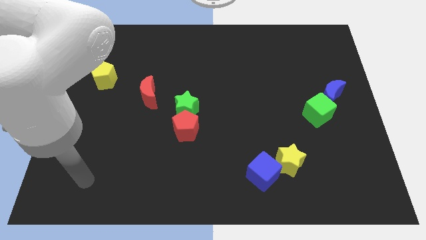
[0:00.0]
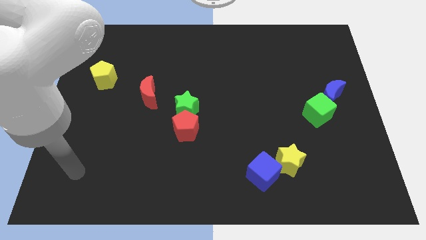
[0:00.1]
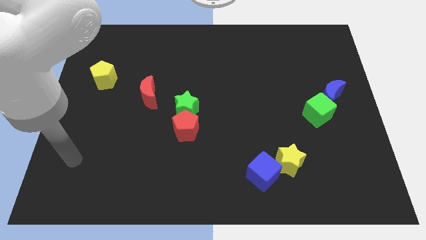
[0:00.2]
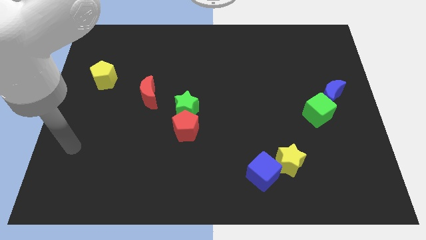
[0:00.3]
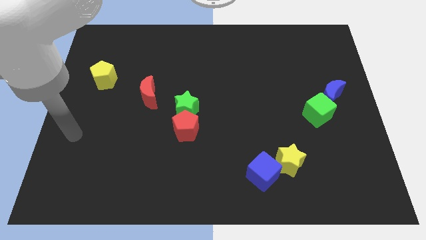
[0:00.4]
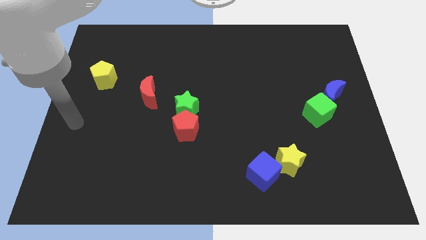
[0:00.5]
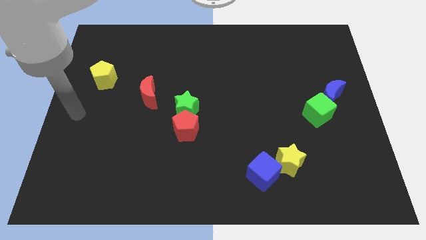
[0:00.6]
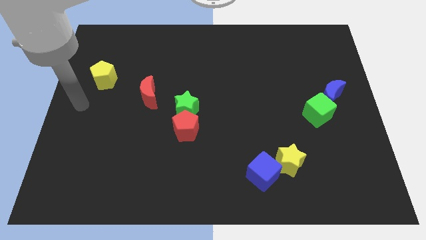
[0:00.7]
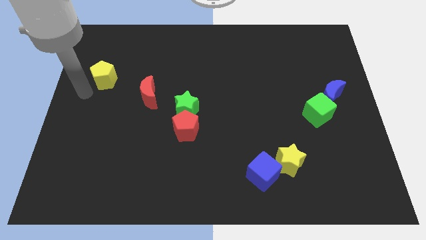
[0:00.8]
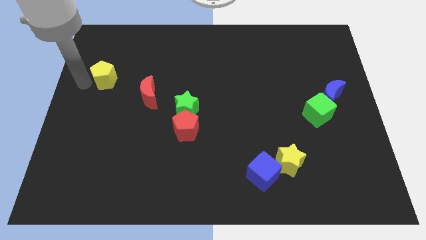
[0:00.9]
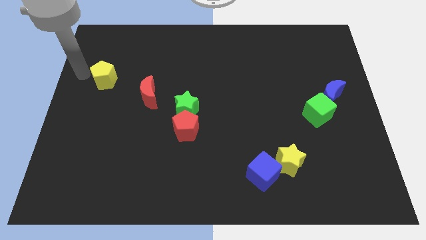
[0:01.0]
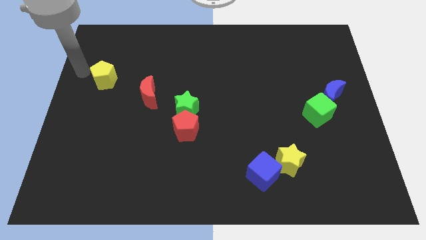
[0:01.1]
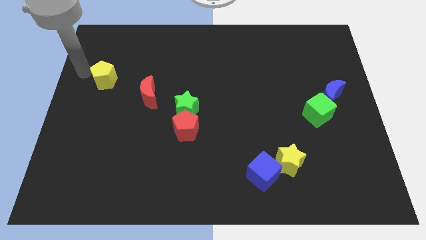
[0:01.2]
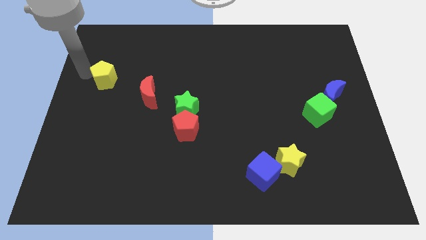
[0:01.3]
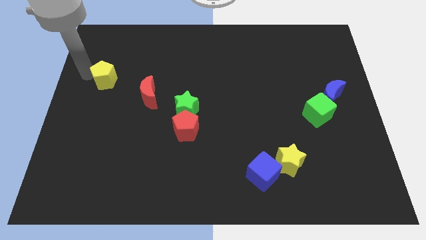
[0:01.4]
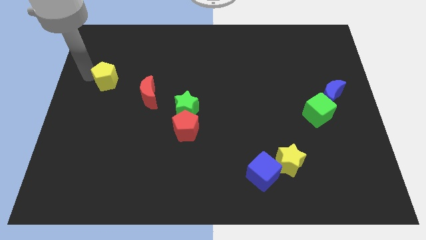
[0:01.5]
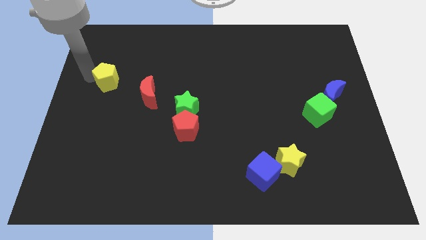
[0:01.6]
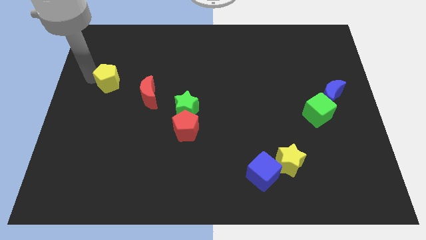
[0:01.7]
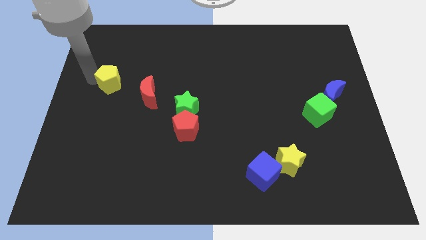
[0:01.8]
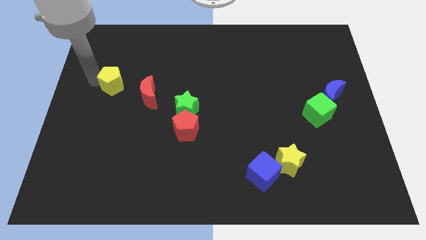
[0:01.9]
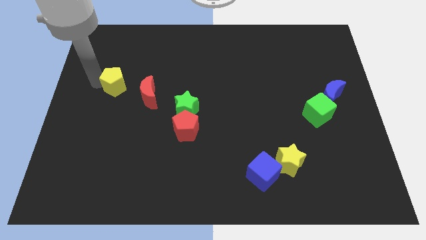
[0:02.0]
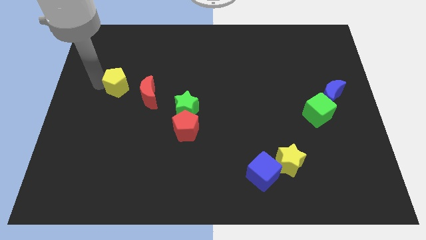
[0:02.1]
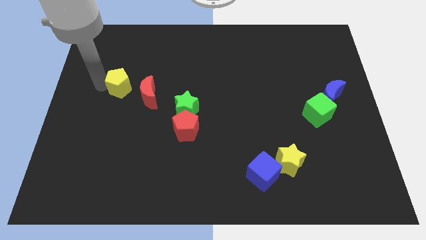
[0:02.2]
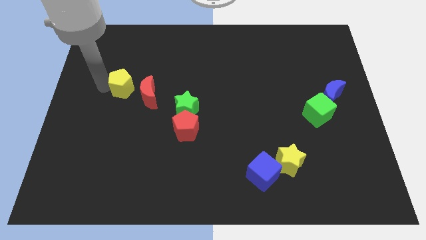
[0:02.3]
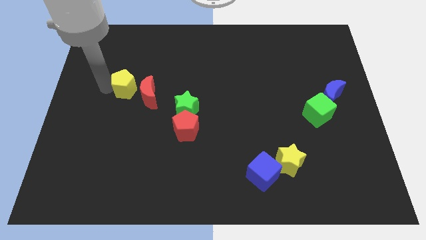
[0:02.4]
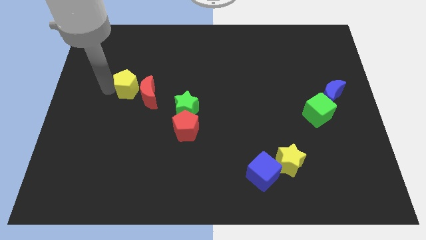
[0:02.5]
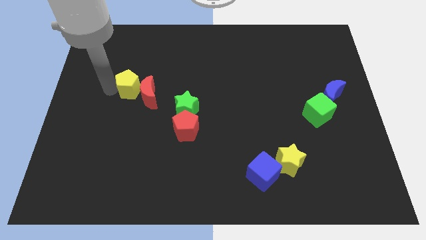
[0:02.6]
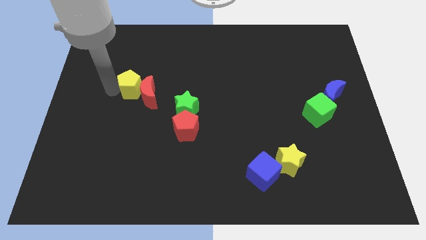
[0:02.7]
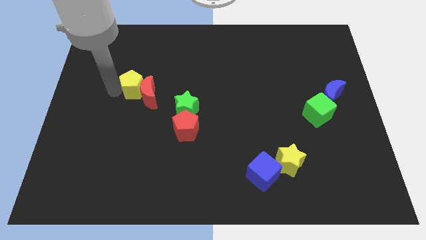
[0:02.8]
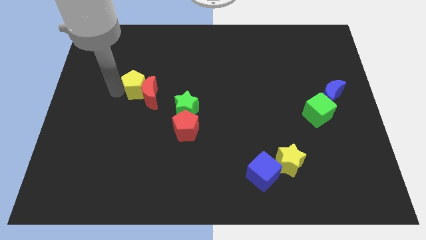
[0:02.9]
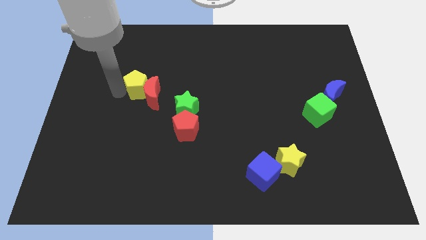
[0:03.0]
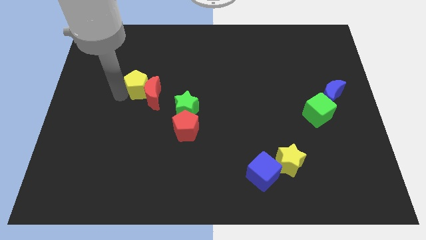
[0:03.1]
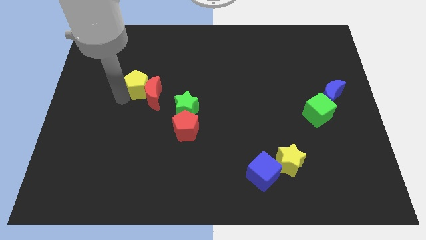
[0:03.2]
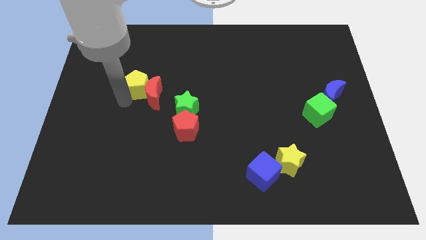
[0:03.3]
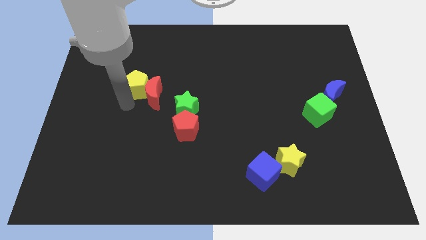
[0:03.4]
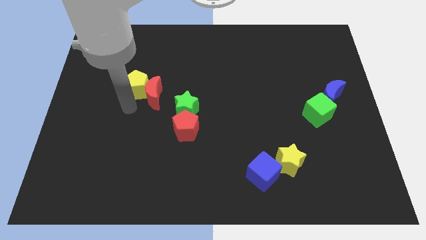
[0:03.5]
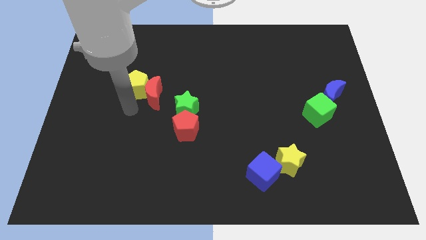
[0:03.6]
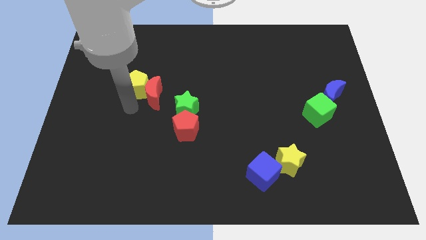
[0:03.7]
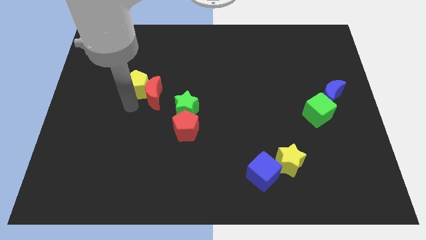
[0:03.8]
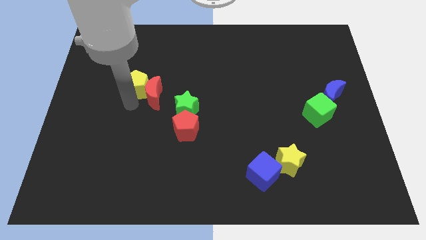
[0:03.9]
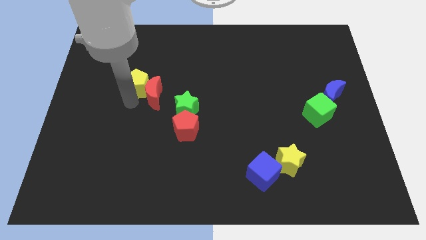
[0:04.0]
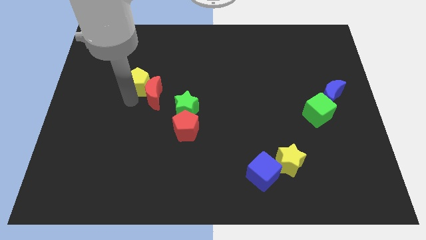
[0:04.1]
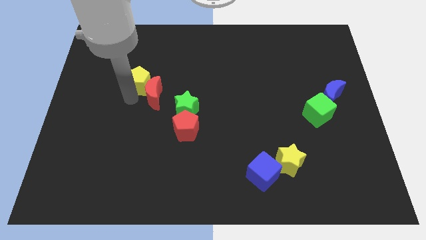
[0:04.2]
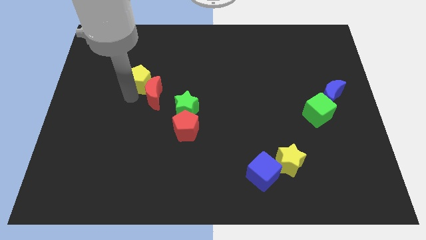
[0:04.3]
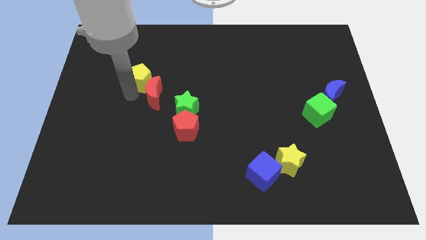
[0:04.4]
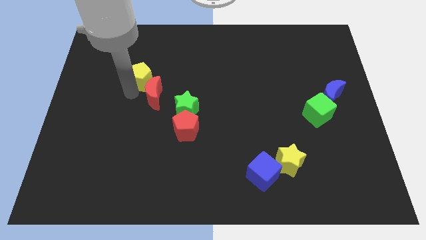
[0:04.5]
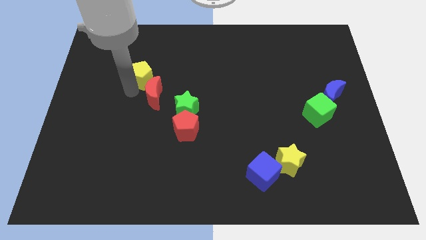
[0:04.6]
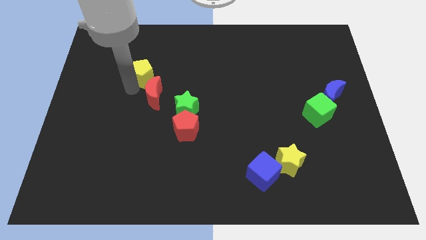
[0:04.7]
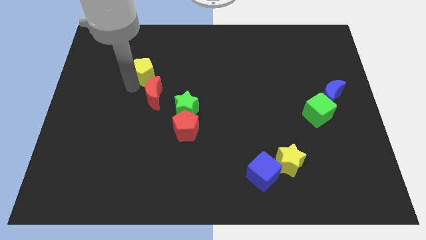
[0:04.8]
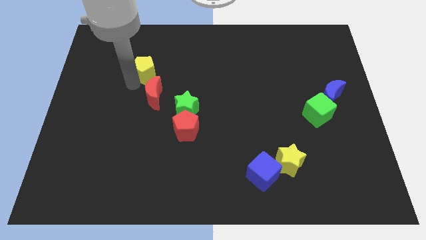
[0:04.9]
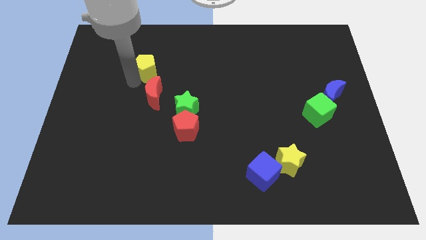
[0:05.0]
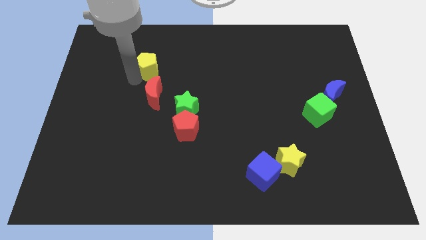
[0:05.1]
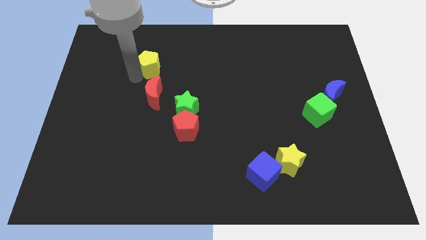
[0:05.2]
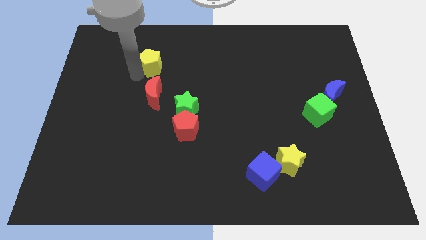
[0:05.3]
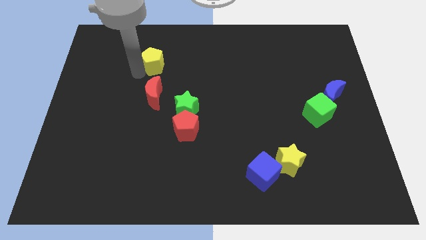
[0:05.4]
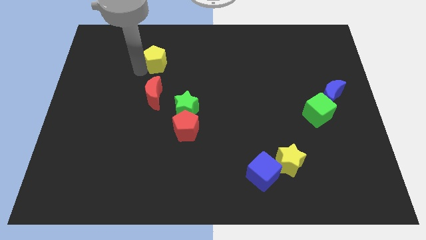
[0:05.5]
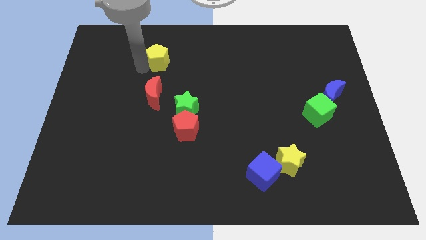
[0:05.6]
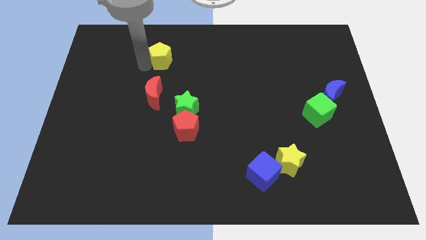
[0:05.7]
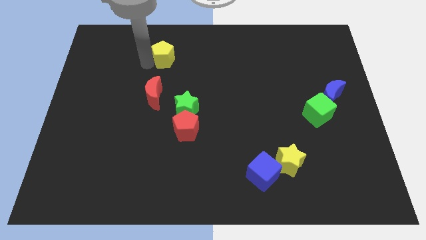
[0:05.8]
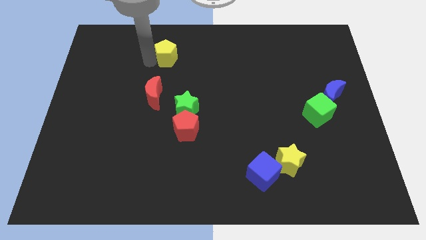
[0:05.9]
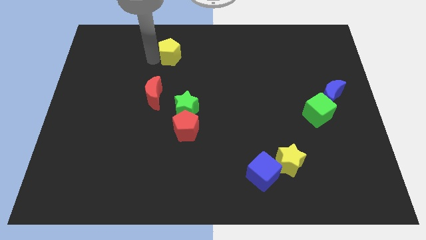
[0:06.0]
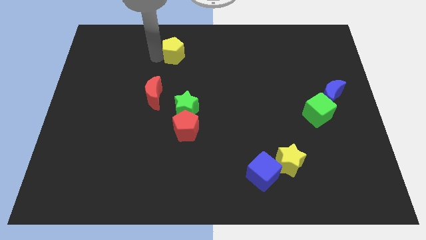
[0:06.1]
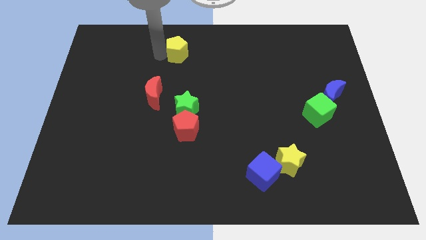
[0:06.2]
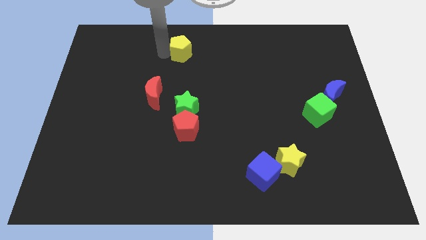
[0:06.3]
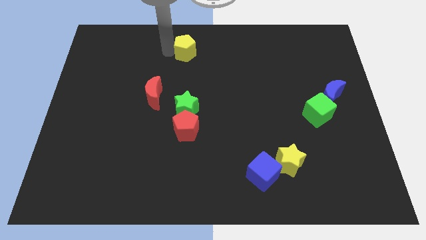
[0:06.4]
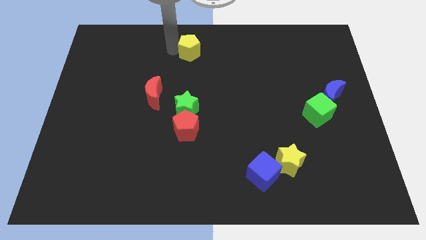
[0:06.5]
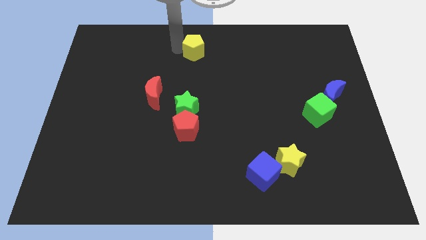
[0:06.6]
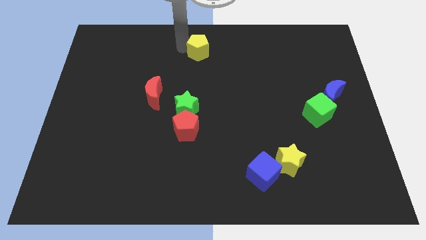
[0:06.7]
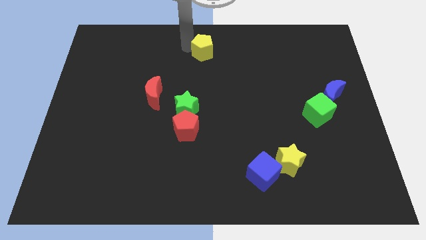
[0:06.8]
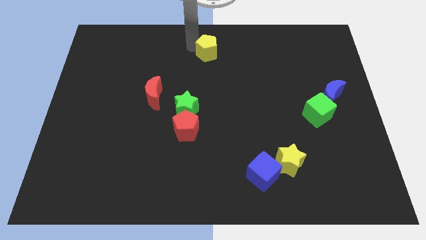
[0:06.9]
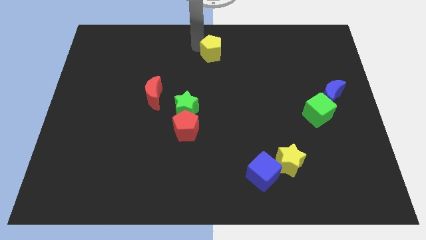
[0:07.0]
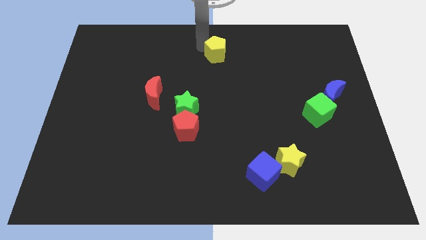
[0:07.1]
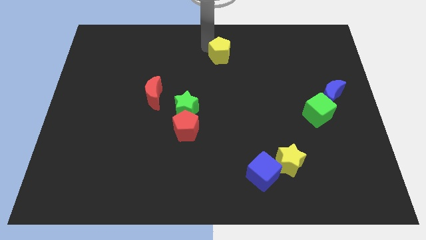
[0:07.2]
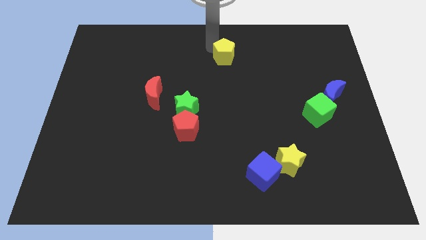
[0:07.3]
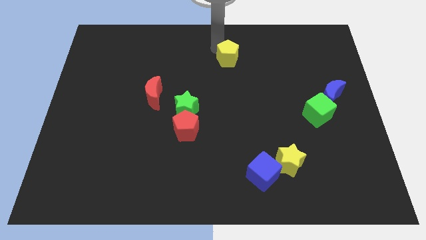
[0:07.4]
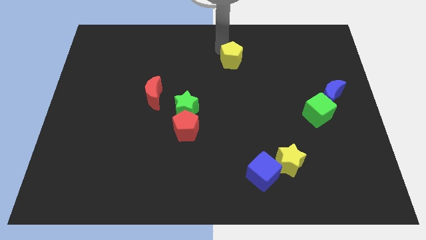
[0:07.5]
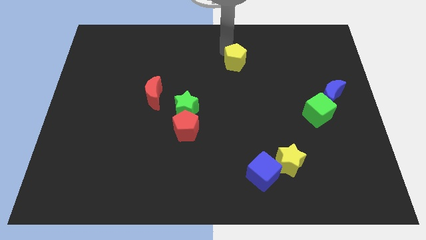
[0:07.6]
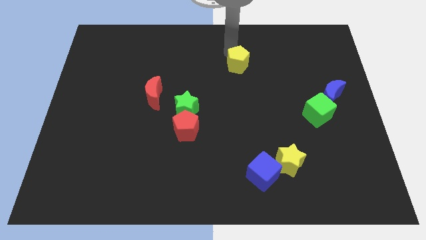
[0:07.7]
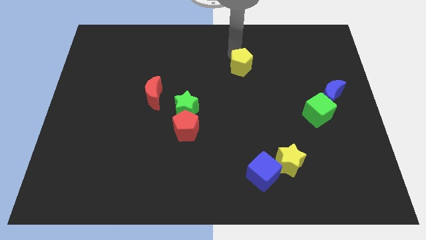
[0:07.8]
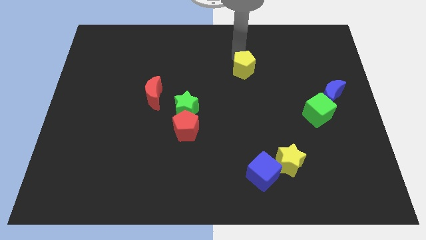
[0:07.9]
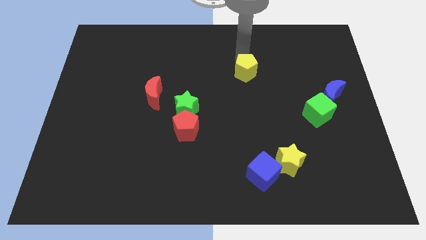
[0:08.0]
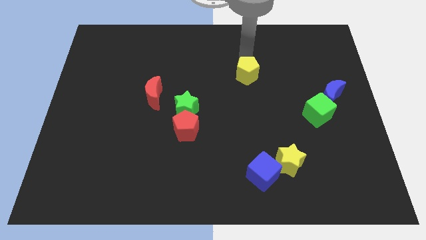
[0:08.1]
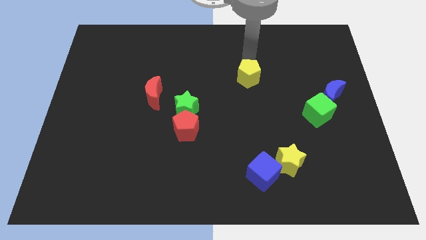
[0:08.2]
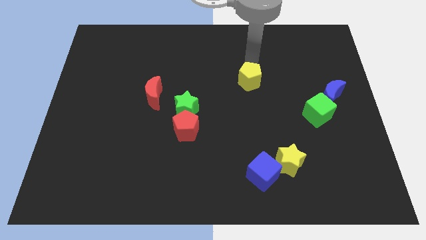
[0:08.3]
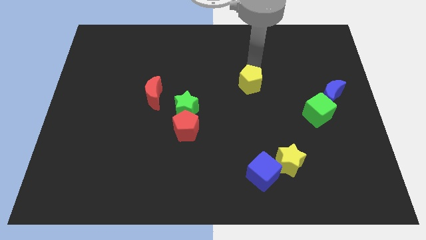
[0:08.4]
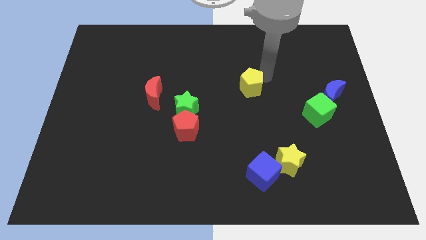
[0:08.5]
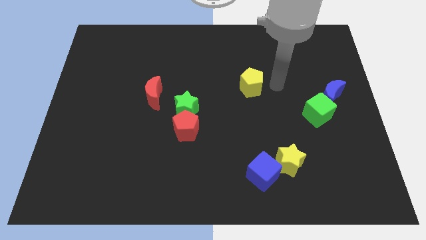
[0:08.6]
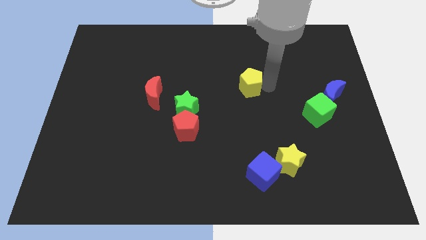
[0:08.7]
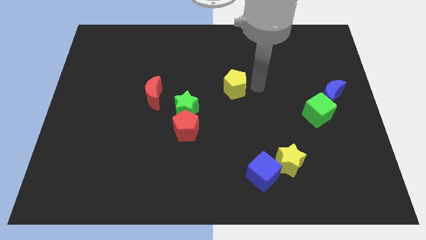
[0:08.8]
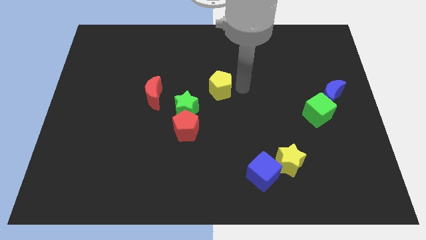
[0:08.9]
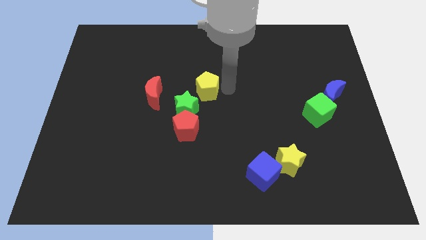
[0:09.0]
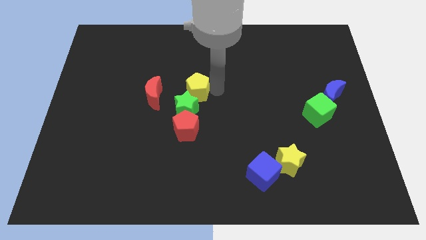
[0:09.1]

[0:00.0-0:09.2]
put the yellow pentagon close to the green star
